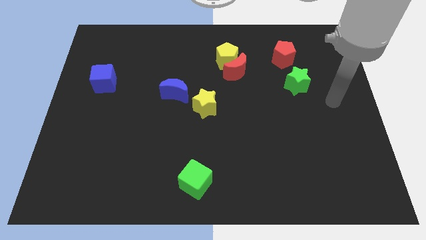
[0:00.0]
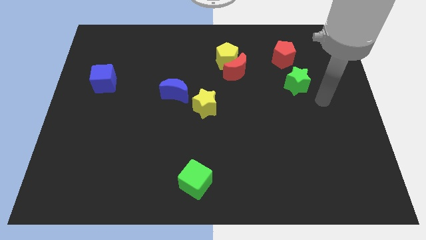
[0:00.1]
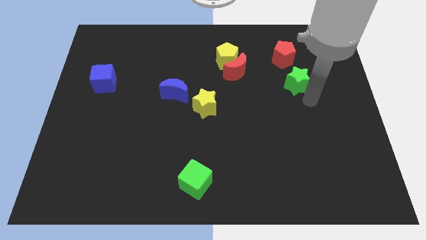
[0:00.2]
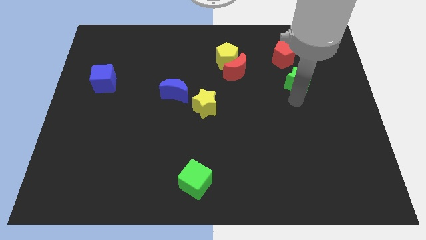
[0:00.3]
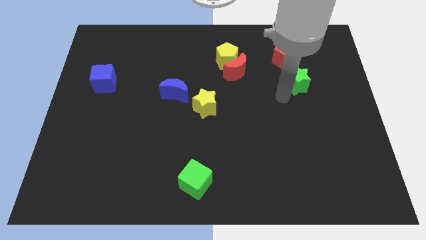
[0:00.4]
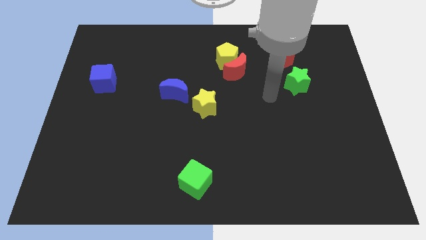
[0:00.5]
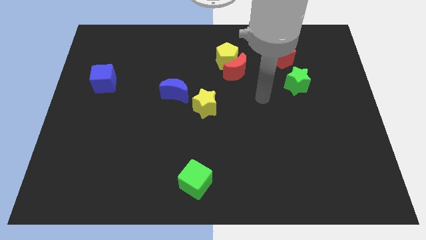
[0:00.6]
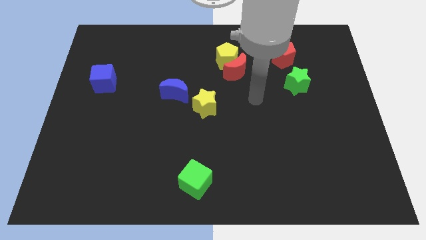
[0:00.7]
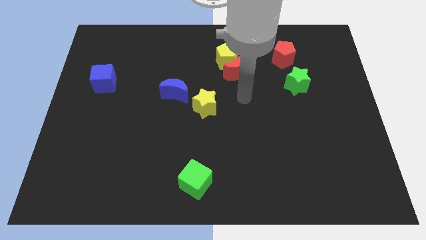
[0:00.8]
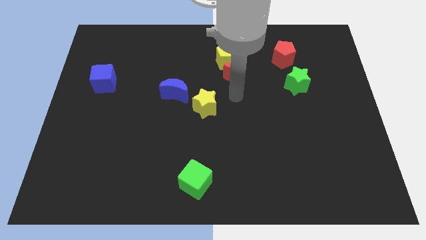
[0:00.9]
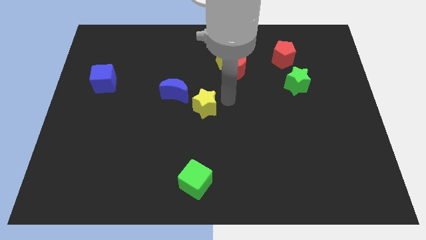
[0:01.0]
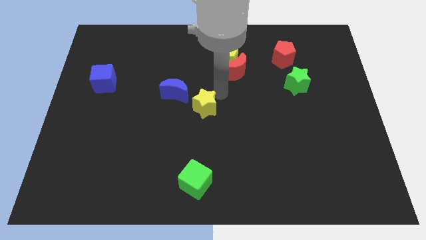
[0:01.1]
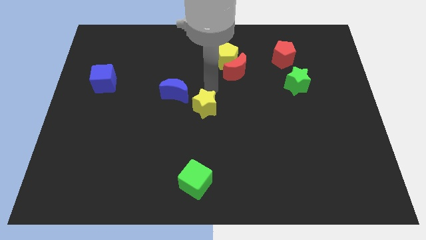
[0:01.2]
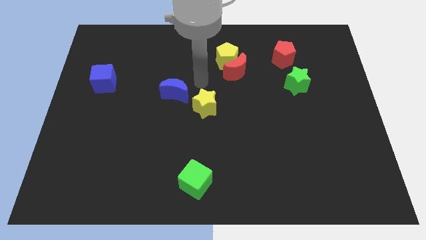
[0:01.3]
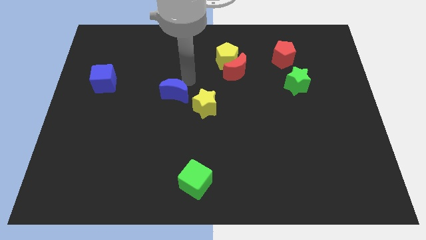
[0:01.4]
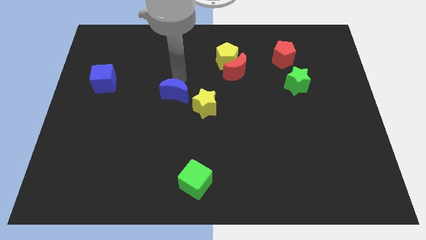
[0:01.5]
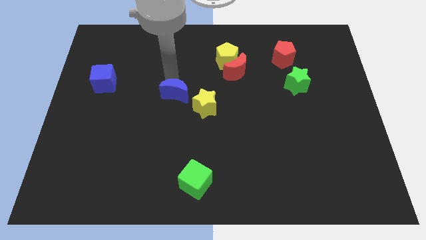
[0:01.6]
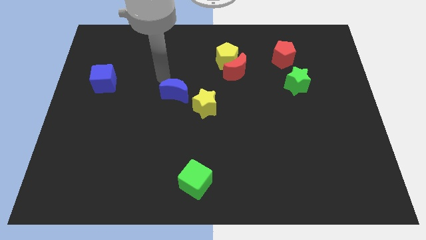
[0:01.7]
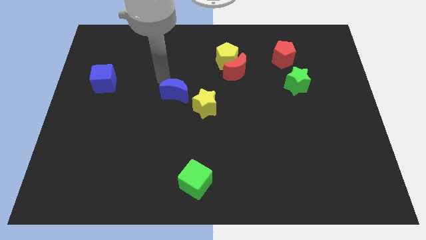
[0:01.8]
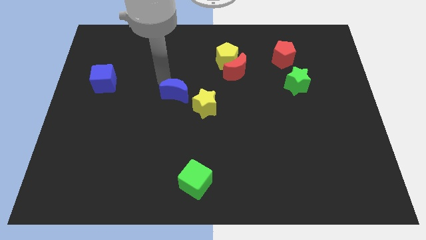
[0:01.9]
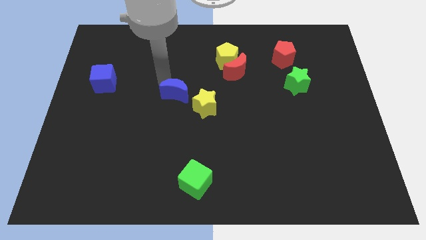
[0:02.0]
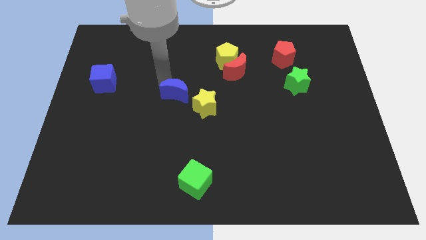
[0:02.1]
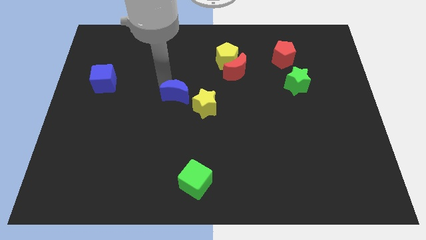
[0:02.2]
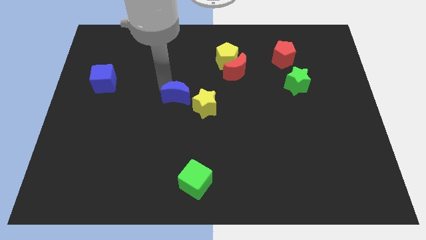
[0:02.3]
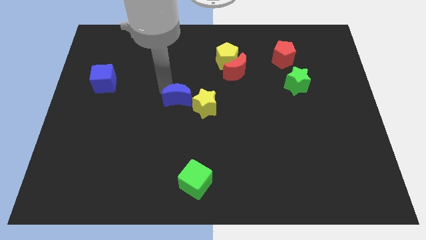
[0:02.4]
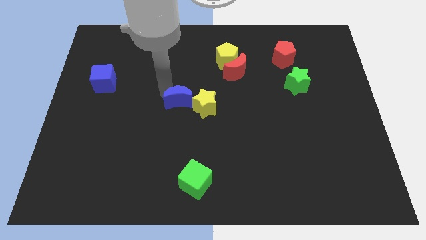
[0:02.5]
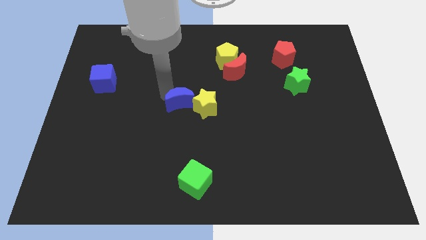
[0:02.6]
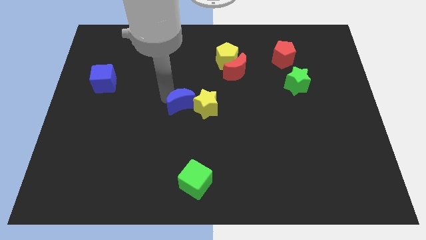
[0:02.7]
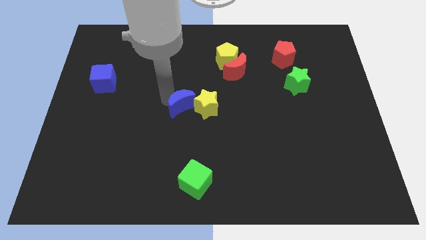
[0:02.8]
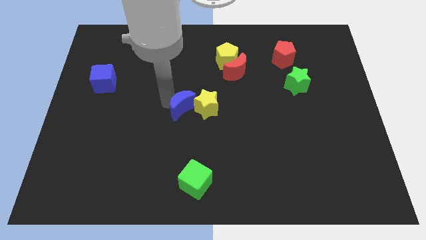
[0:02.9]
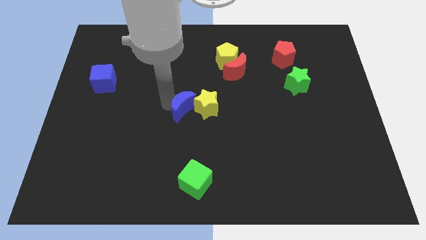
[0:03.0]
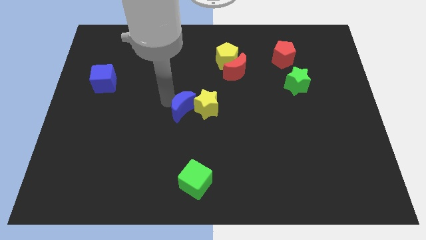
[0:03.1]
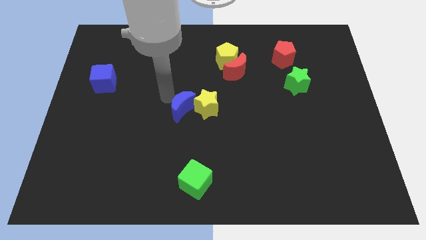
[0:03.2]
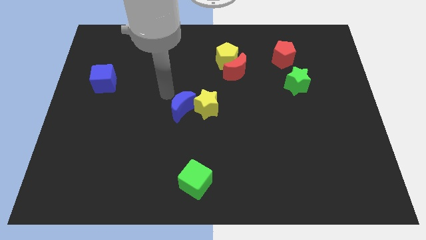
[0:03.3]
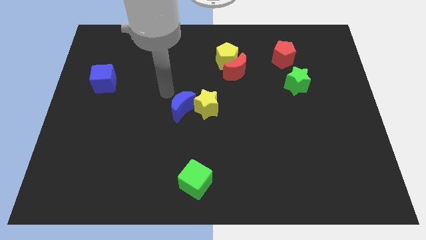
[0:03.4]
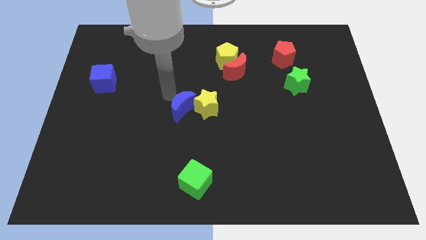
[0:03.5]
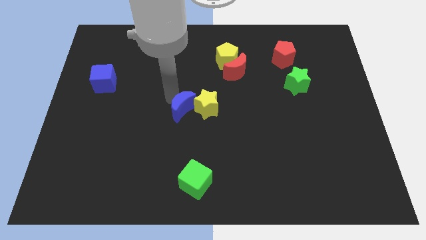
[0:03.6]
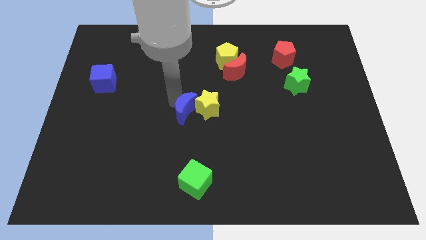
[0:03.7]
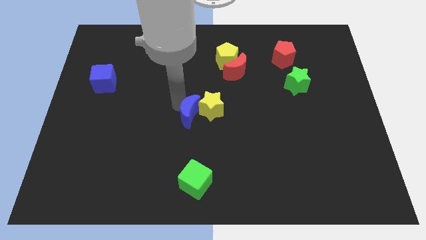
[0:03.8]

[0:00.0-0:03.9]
move the blue moon diagonally downwards and to the right a little

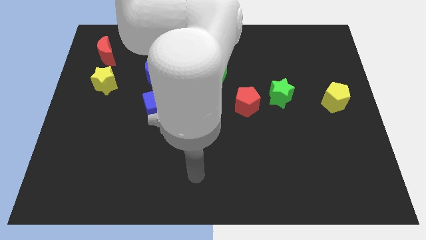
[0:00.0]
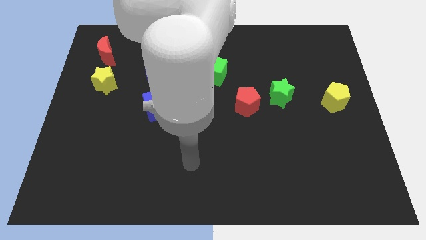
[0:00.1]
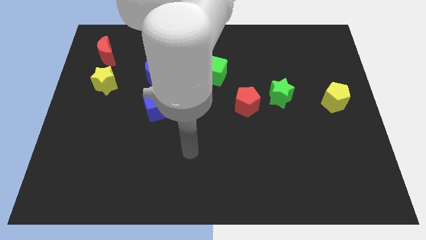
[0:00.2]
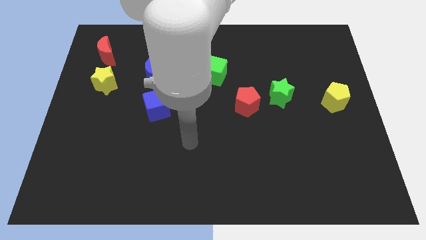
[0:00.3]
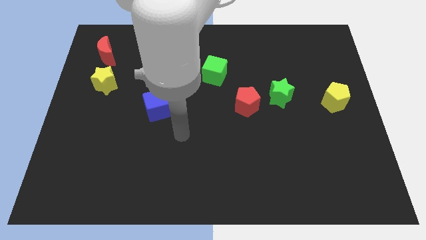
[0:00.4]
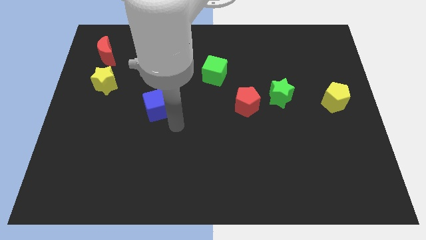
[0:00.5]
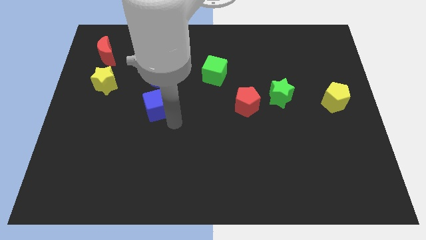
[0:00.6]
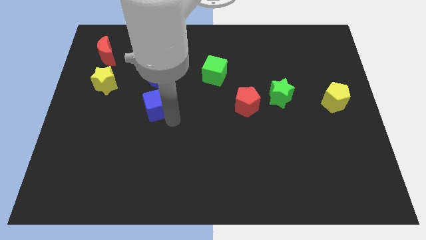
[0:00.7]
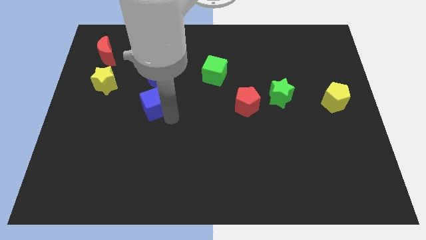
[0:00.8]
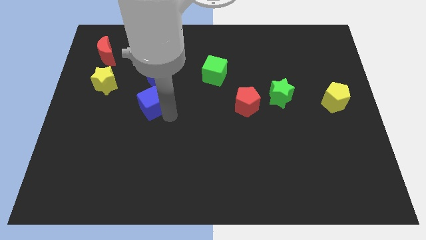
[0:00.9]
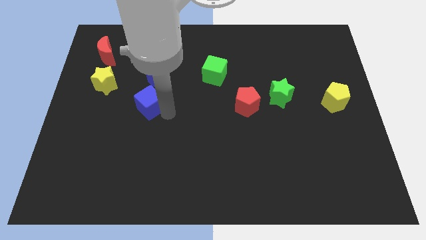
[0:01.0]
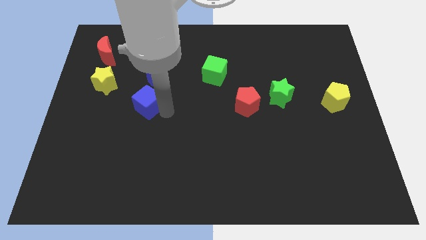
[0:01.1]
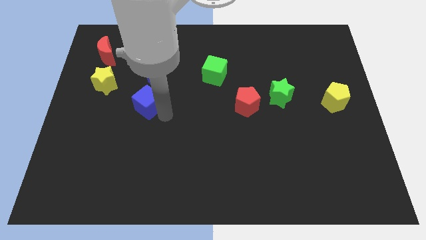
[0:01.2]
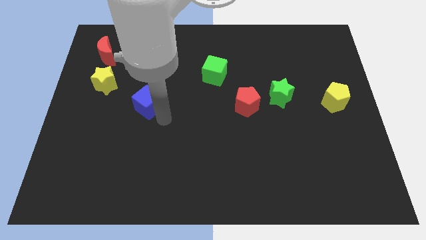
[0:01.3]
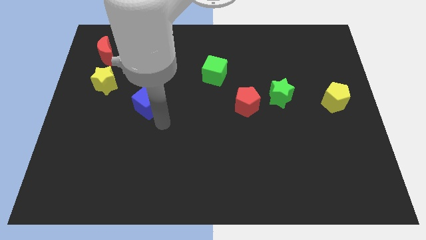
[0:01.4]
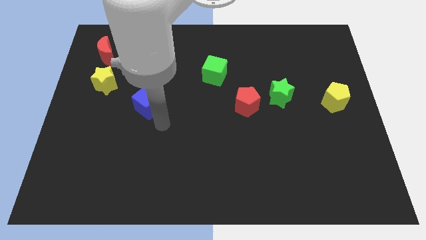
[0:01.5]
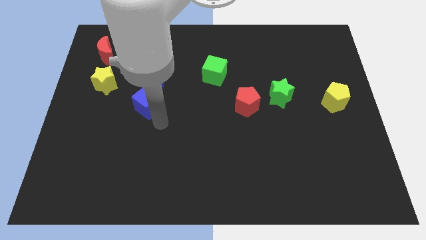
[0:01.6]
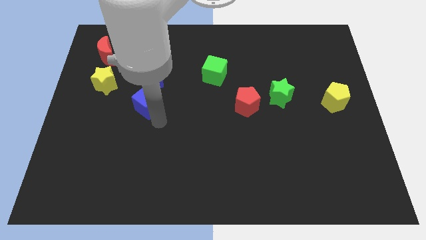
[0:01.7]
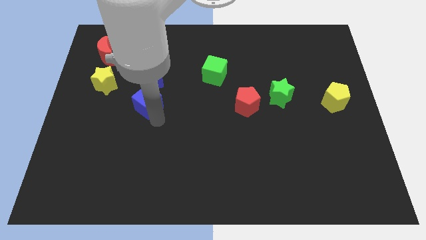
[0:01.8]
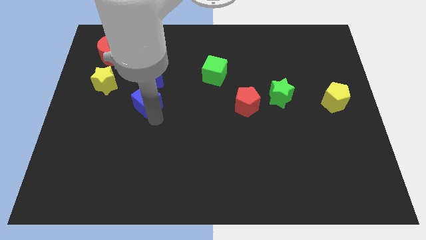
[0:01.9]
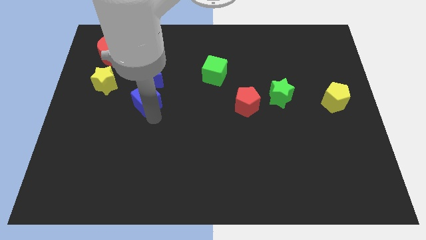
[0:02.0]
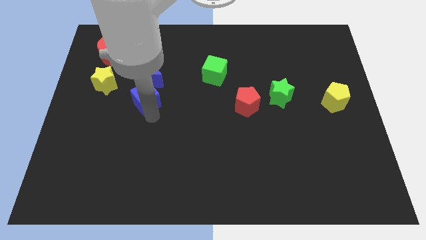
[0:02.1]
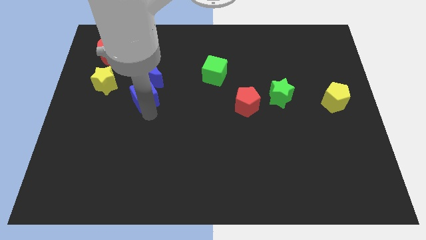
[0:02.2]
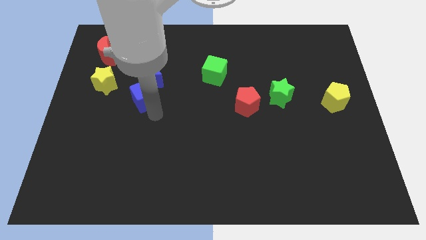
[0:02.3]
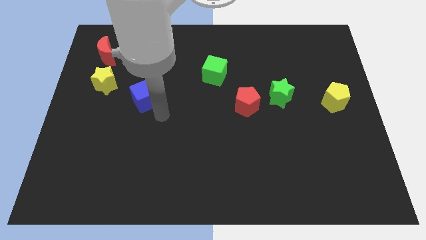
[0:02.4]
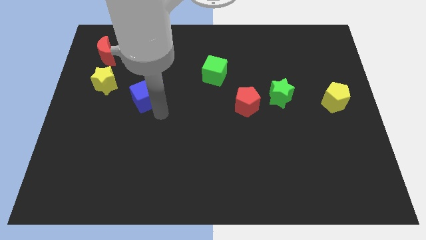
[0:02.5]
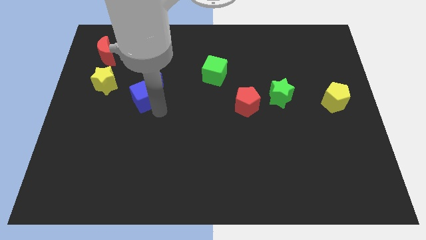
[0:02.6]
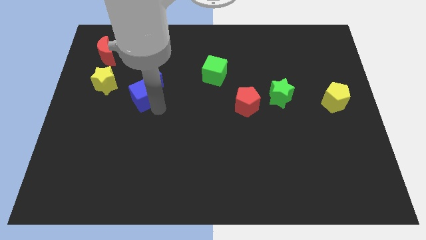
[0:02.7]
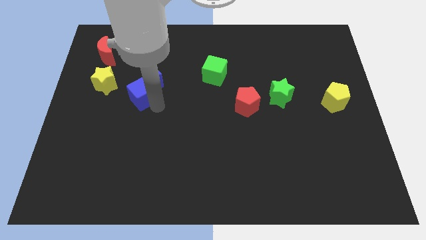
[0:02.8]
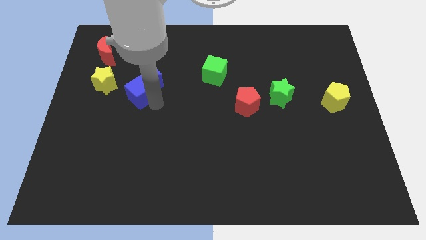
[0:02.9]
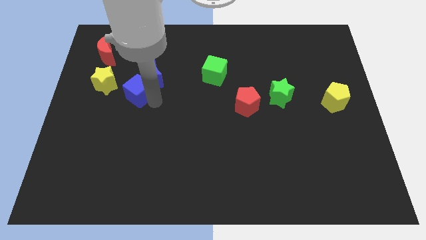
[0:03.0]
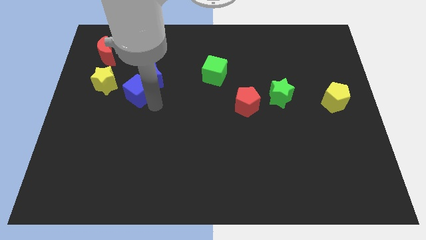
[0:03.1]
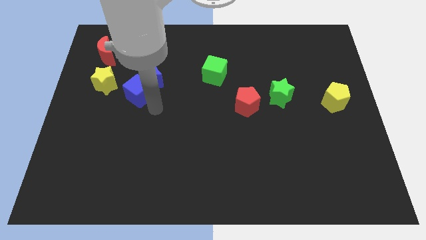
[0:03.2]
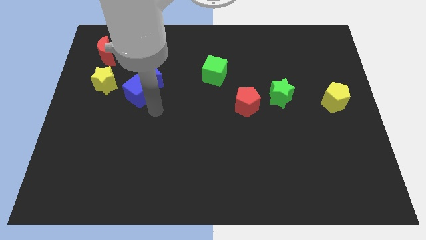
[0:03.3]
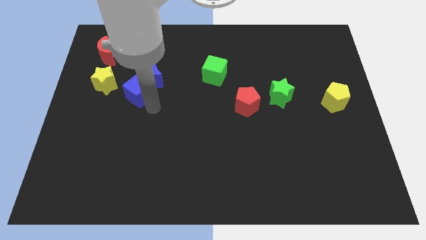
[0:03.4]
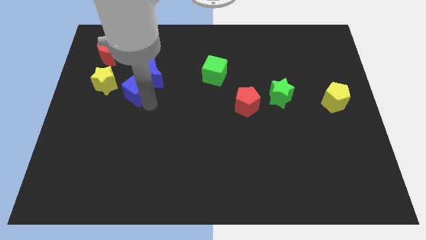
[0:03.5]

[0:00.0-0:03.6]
slightly push the blue cube diagonally up and to the left

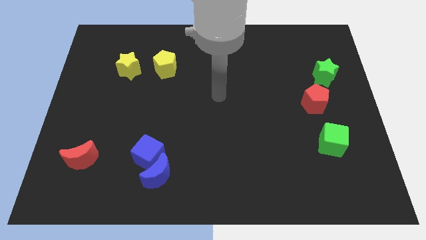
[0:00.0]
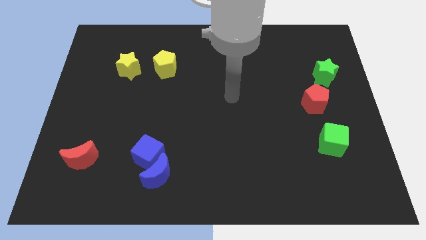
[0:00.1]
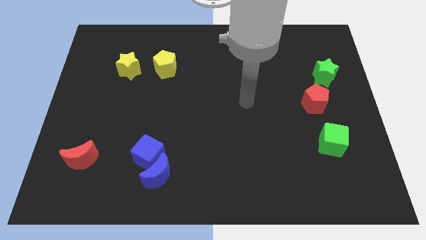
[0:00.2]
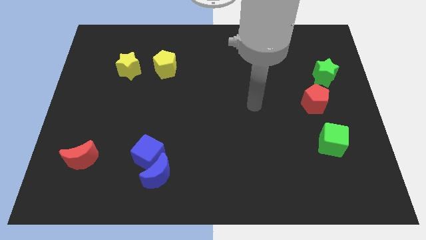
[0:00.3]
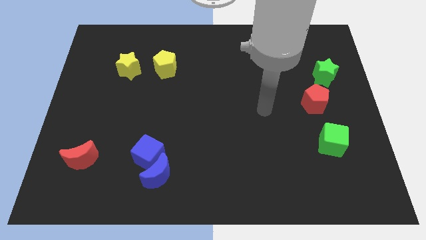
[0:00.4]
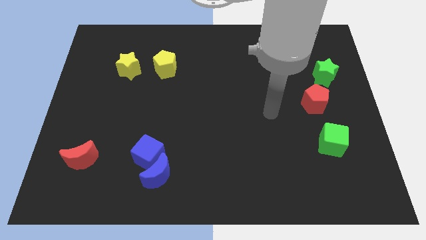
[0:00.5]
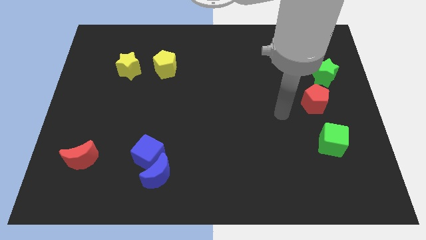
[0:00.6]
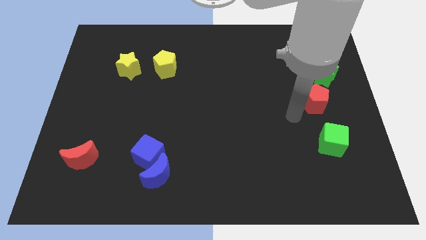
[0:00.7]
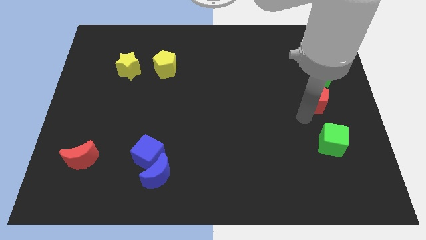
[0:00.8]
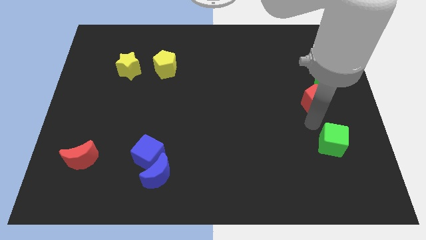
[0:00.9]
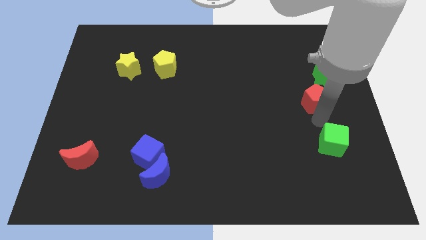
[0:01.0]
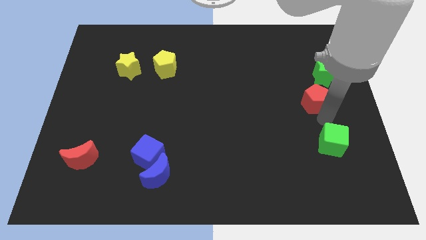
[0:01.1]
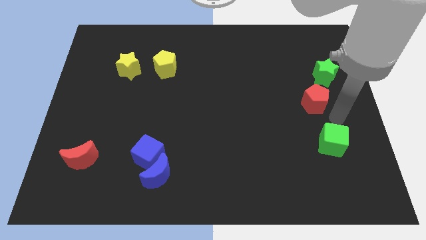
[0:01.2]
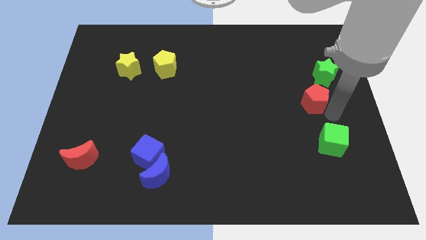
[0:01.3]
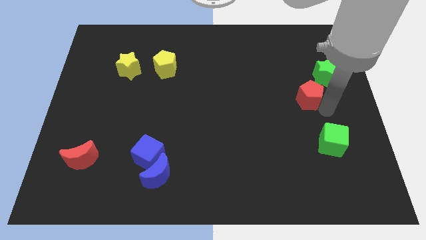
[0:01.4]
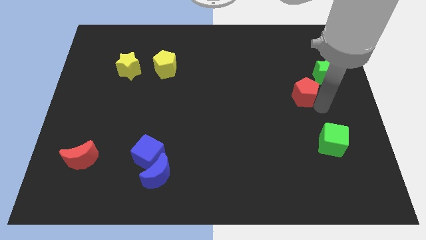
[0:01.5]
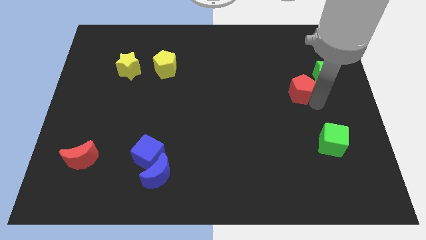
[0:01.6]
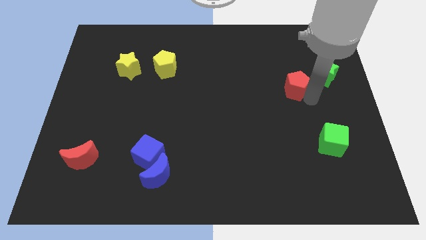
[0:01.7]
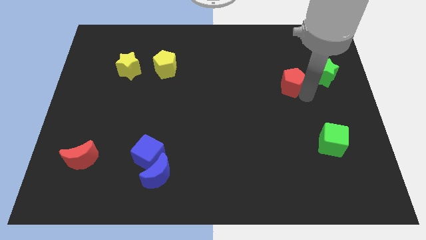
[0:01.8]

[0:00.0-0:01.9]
slightly push the red pentagon upwards and to the left
